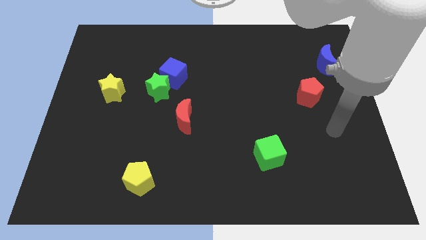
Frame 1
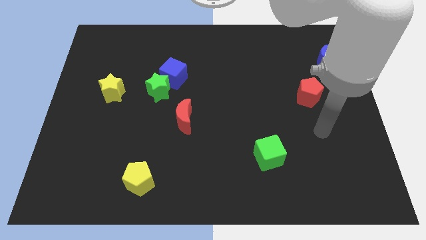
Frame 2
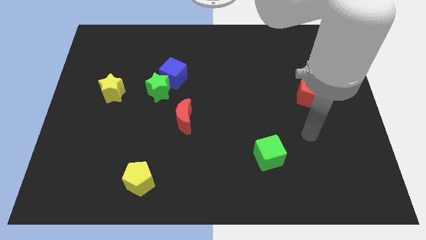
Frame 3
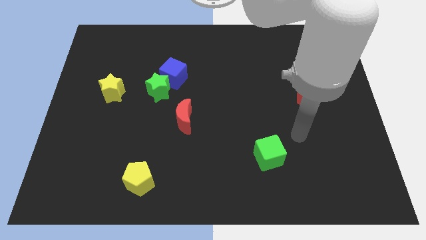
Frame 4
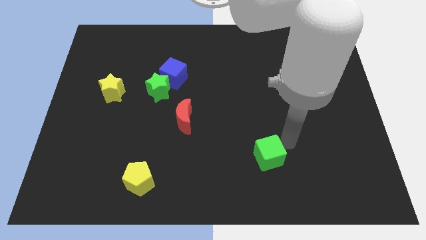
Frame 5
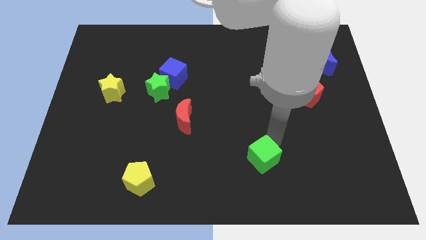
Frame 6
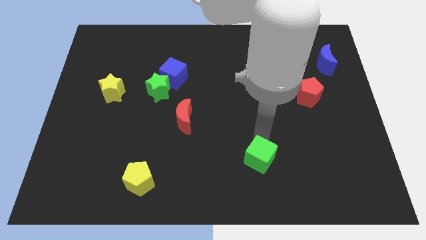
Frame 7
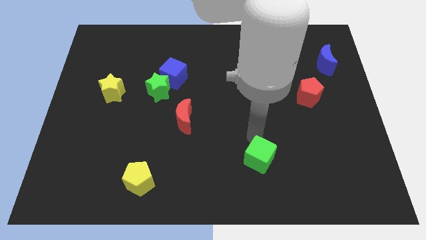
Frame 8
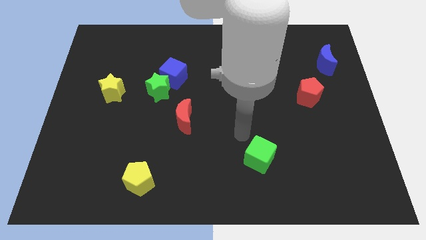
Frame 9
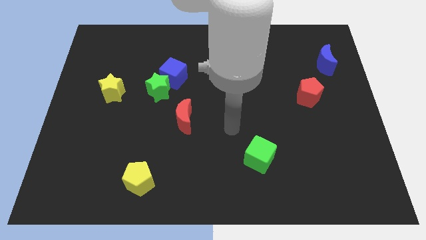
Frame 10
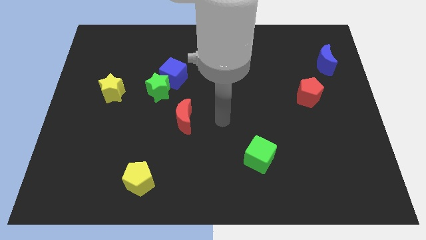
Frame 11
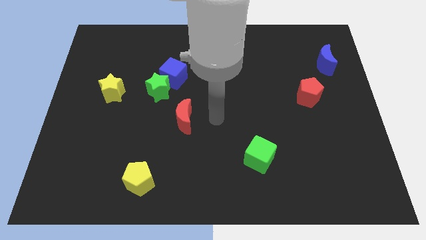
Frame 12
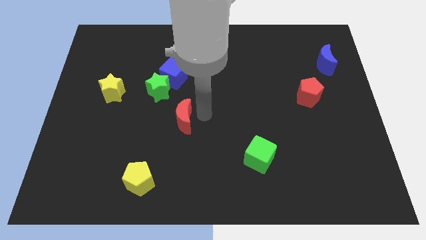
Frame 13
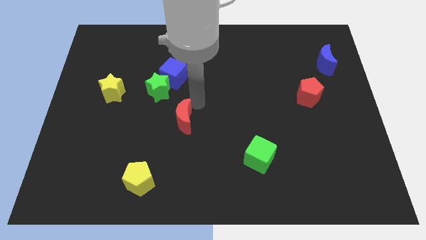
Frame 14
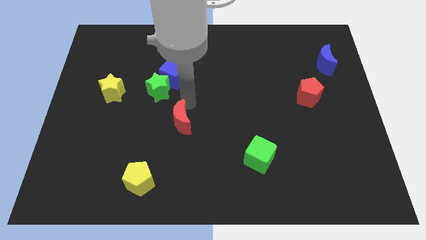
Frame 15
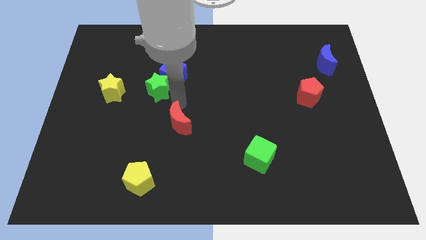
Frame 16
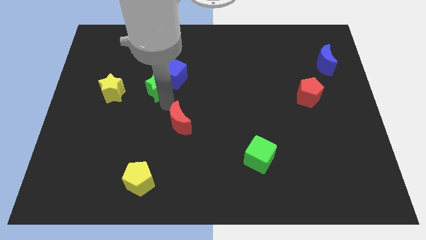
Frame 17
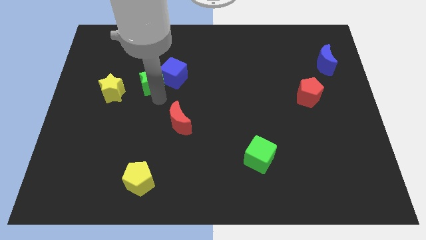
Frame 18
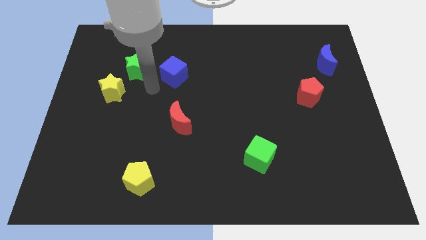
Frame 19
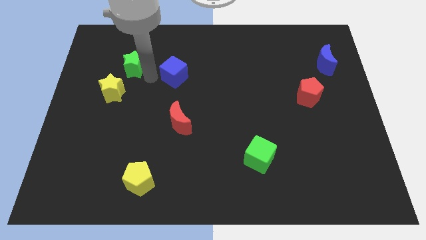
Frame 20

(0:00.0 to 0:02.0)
pull the blue cube apart from the green star

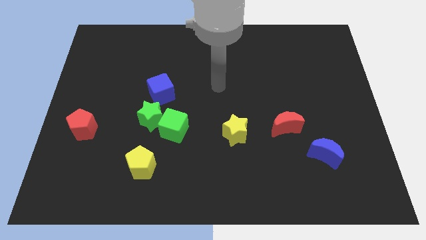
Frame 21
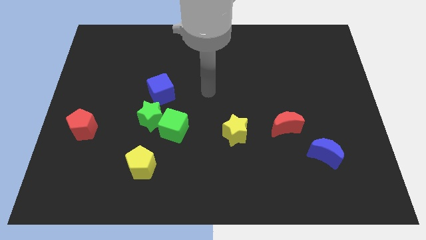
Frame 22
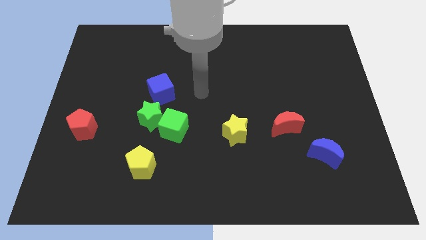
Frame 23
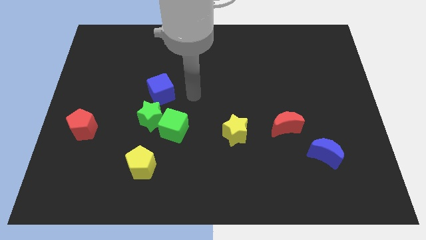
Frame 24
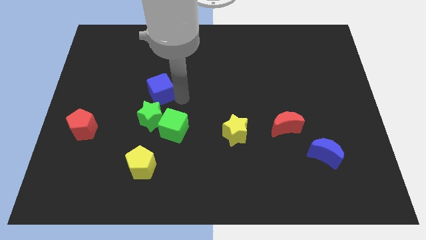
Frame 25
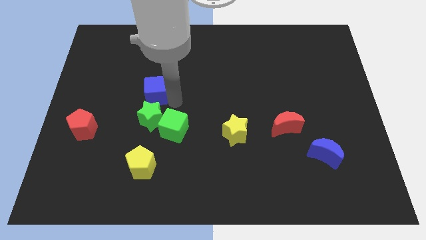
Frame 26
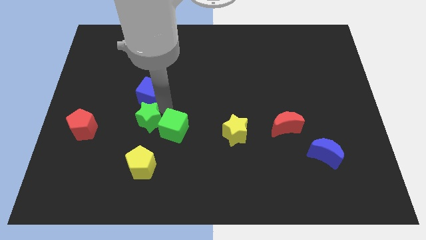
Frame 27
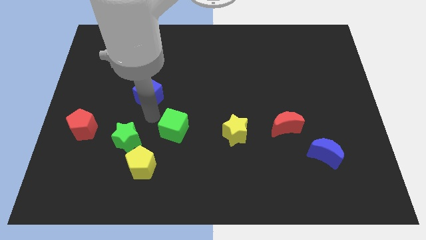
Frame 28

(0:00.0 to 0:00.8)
separate the green cube from the green star

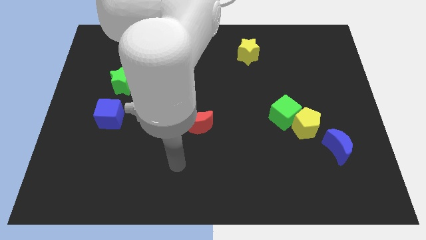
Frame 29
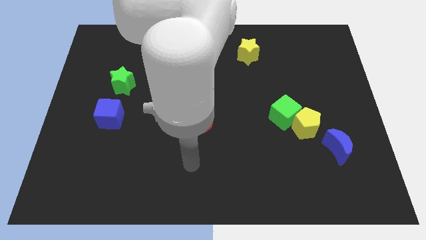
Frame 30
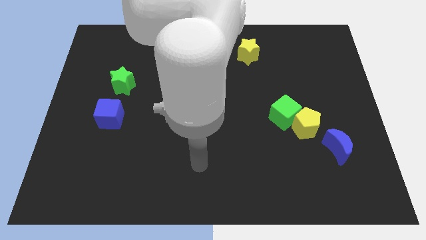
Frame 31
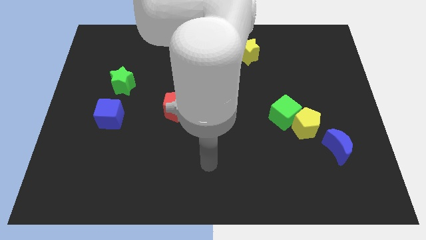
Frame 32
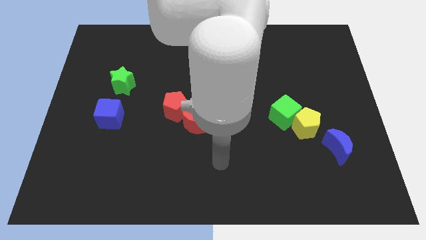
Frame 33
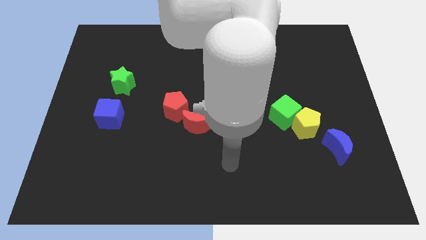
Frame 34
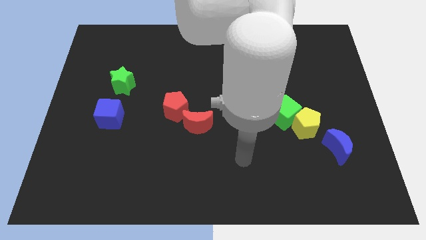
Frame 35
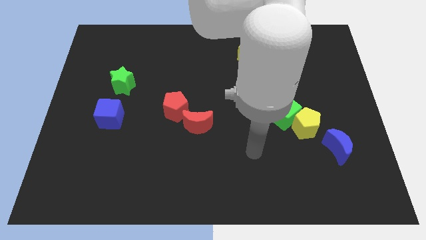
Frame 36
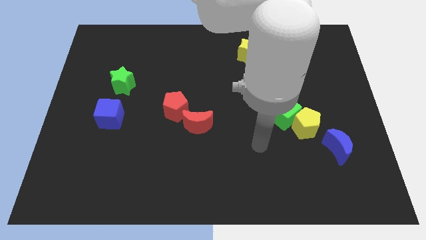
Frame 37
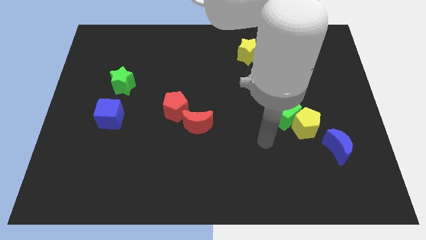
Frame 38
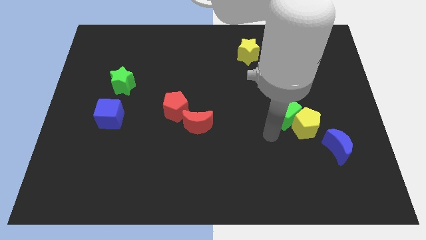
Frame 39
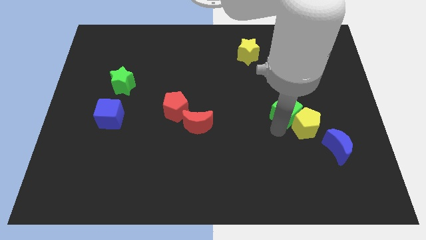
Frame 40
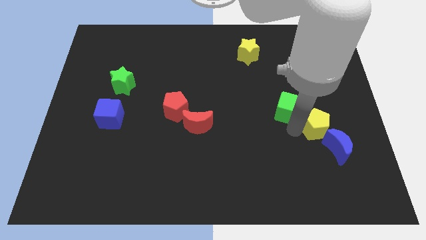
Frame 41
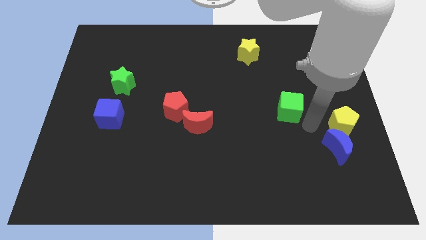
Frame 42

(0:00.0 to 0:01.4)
separate the green cube from the yellow pentagon

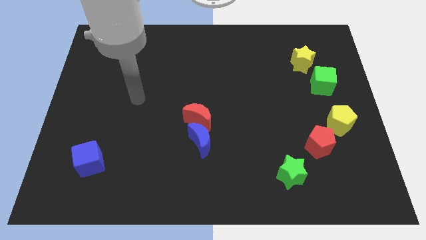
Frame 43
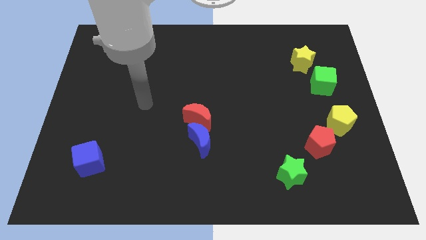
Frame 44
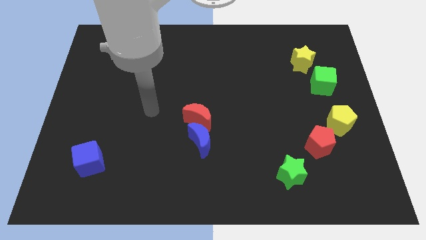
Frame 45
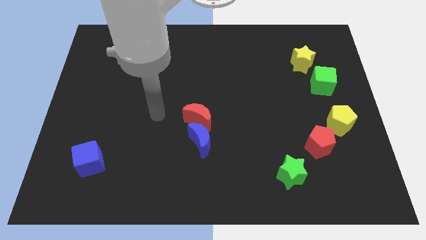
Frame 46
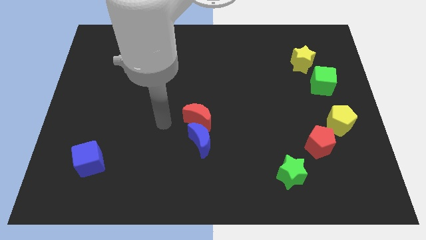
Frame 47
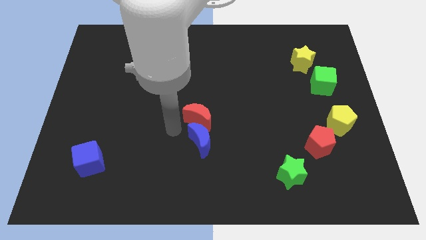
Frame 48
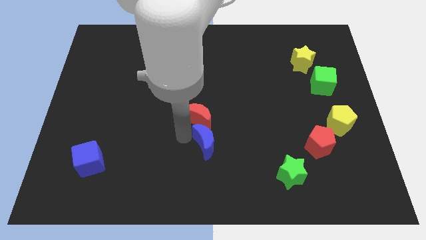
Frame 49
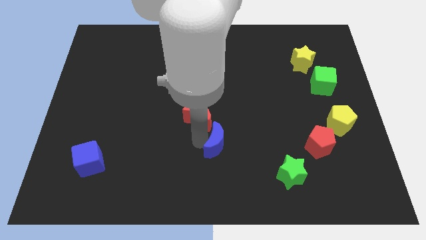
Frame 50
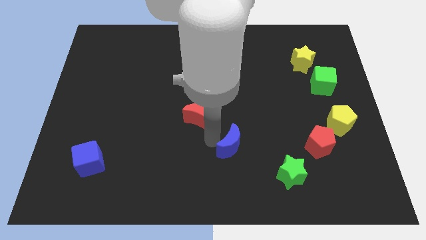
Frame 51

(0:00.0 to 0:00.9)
move the red moon away from the blue moon

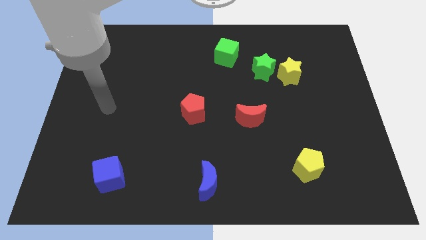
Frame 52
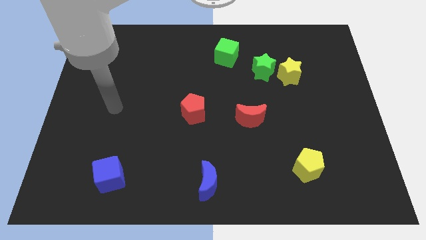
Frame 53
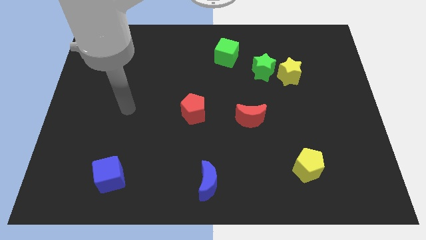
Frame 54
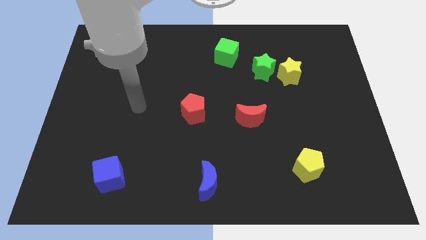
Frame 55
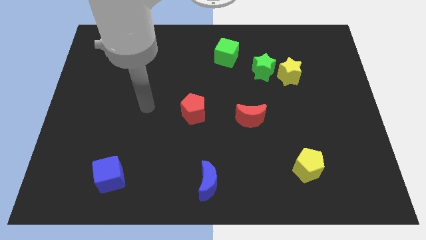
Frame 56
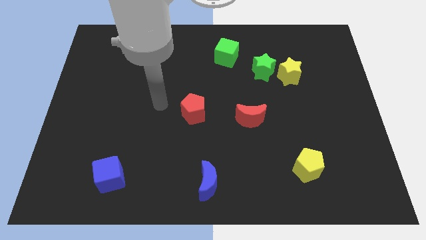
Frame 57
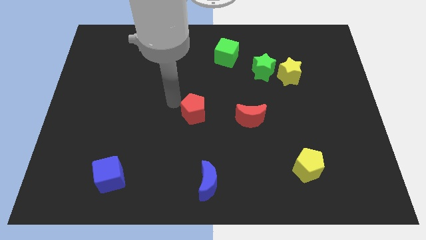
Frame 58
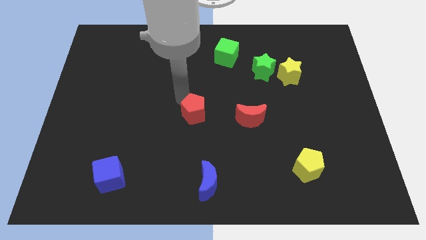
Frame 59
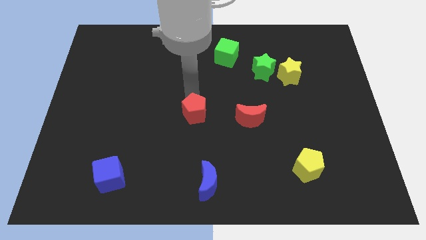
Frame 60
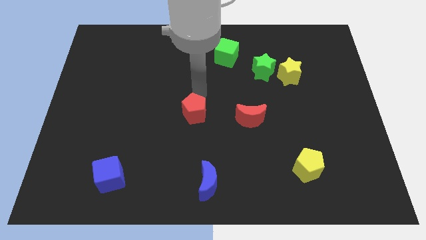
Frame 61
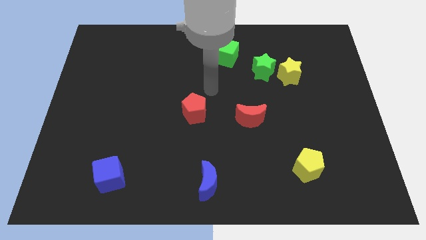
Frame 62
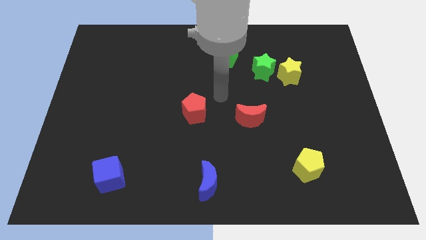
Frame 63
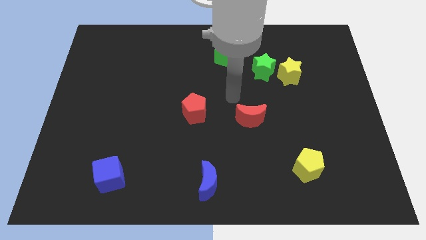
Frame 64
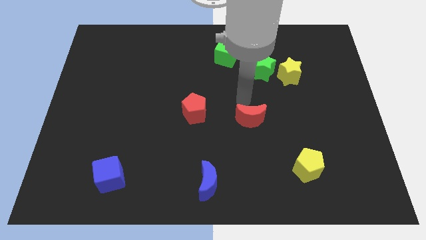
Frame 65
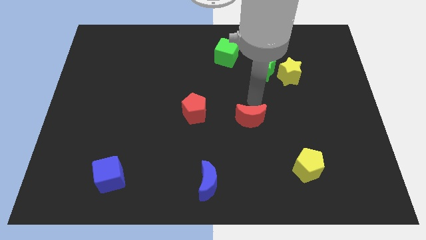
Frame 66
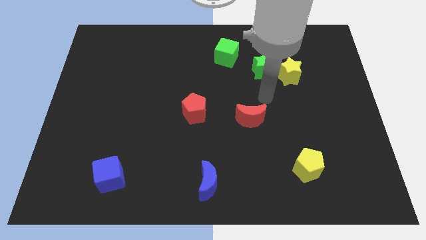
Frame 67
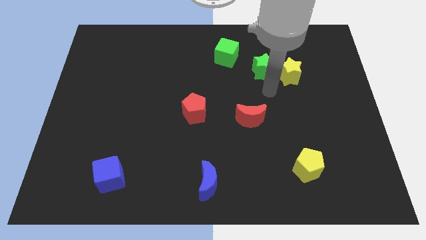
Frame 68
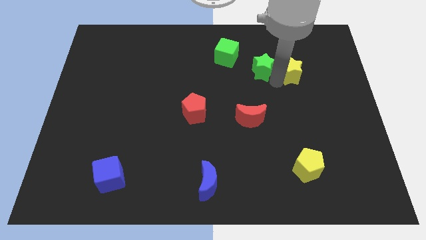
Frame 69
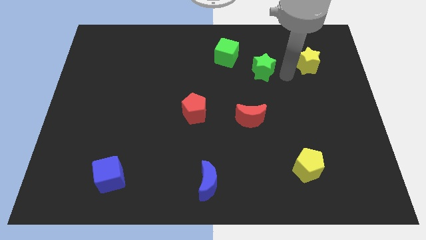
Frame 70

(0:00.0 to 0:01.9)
separate the green star from the yellow star

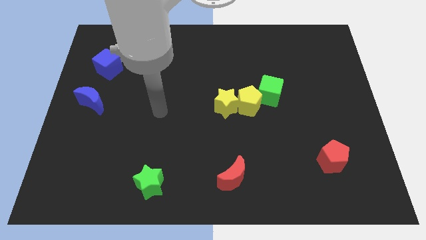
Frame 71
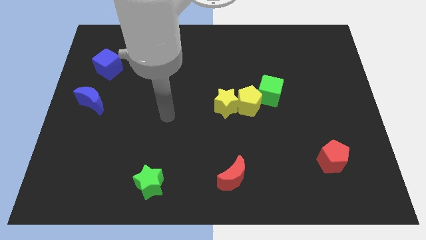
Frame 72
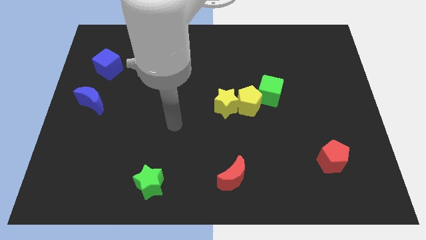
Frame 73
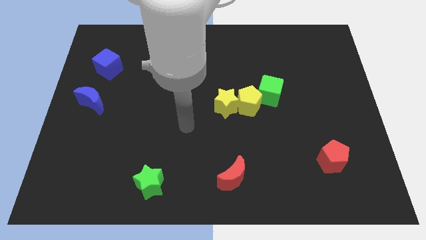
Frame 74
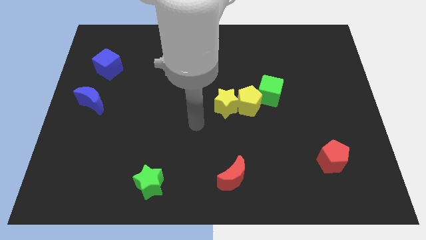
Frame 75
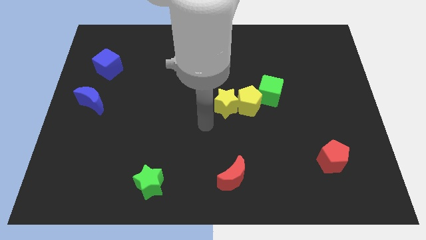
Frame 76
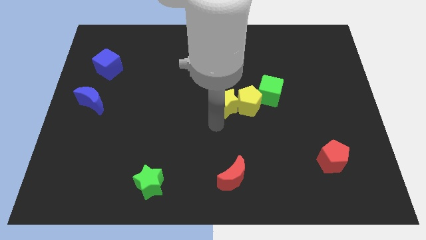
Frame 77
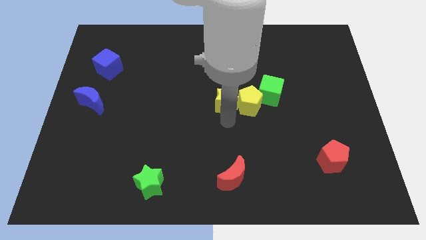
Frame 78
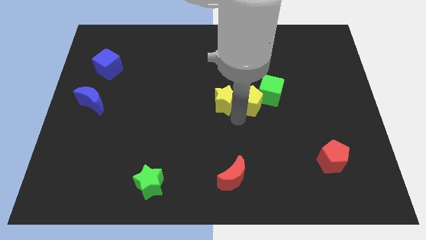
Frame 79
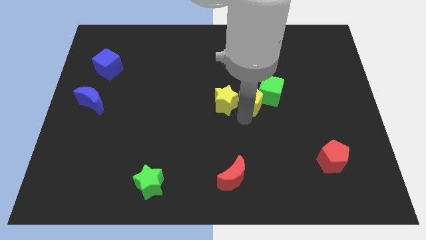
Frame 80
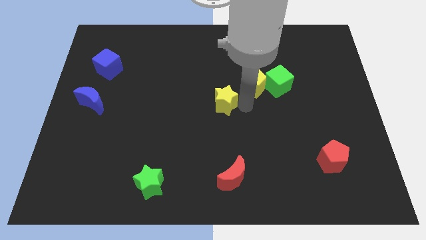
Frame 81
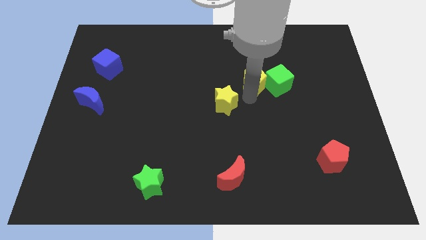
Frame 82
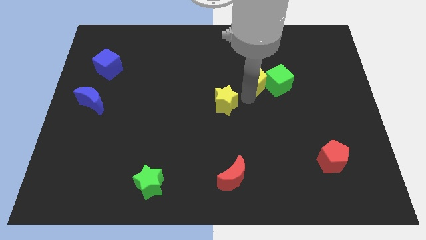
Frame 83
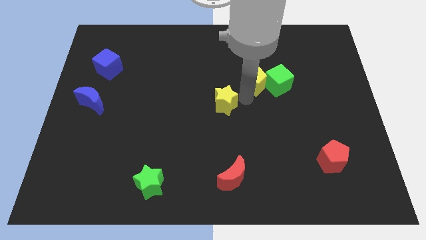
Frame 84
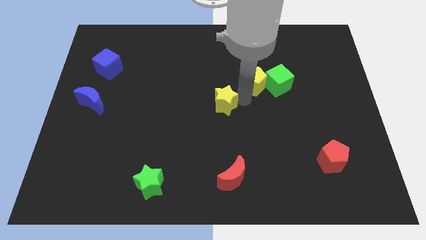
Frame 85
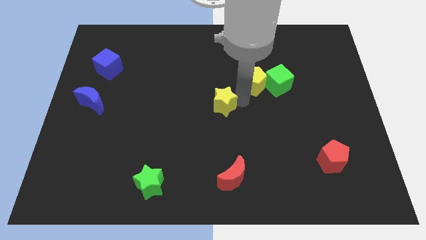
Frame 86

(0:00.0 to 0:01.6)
pull the yellow star apart from the yellow pentagon

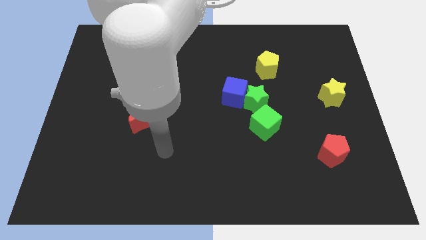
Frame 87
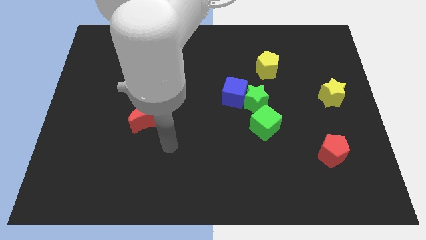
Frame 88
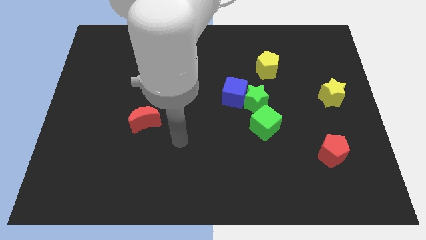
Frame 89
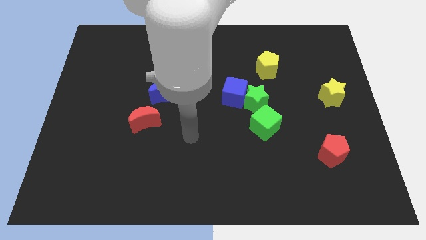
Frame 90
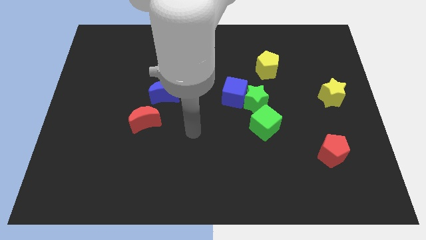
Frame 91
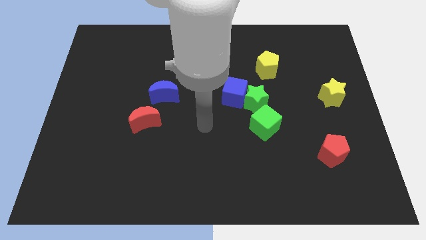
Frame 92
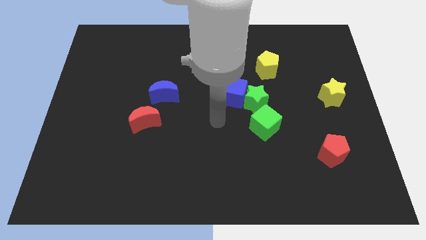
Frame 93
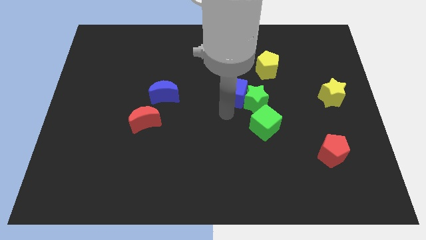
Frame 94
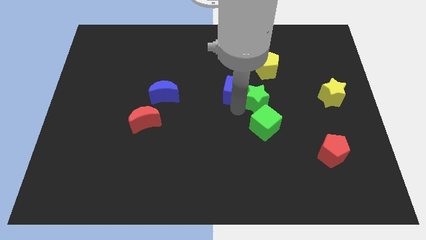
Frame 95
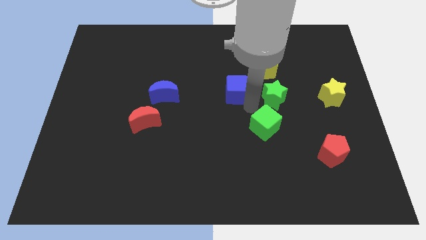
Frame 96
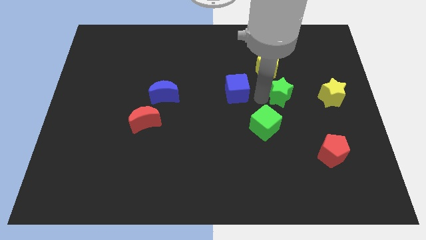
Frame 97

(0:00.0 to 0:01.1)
move the blue cube away from the green star
